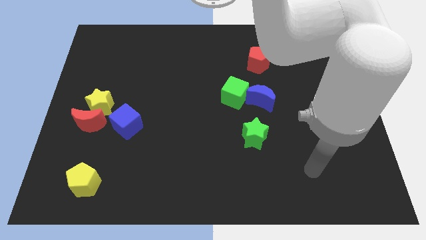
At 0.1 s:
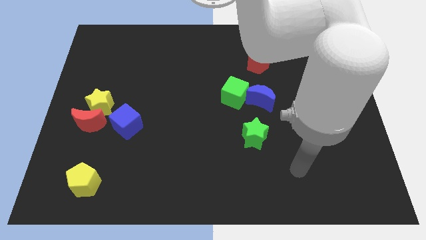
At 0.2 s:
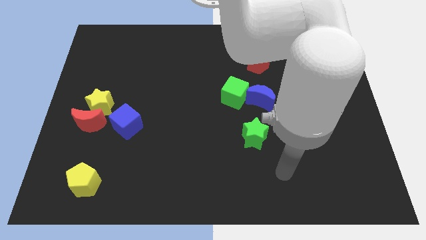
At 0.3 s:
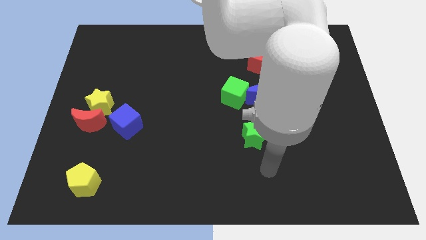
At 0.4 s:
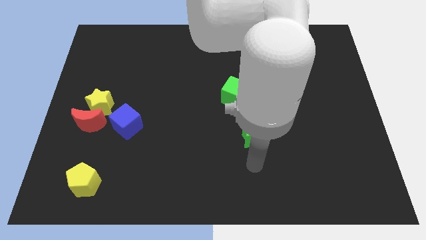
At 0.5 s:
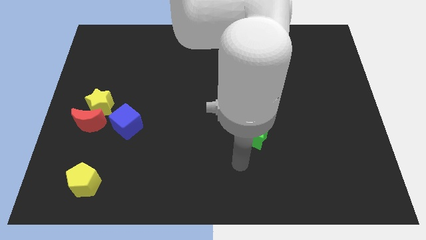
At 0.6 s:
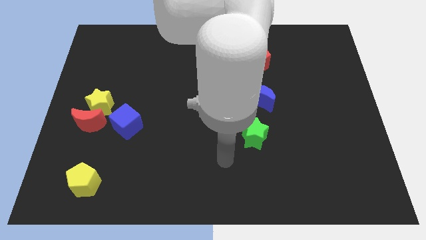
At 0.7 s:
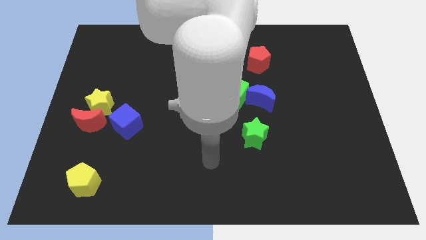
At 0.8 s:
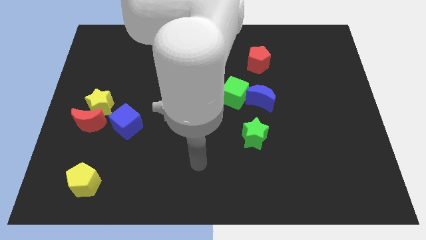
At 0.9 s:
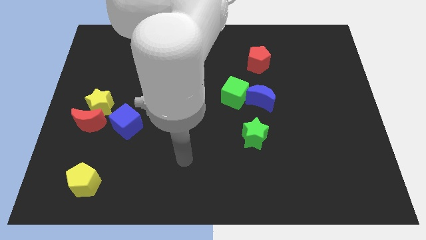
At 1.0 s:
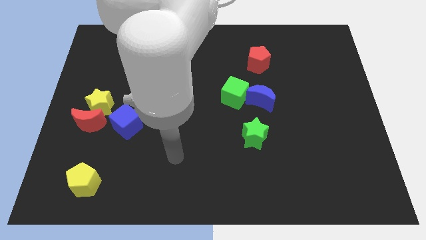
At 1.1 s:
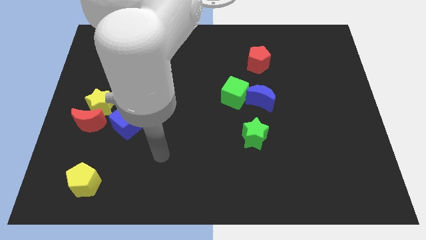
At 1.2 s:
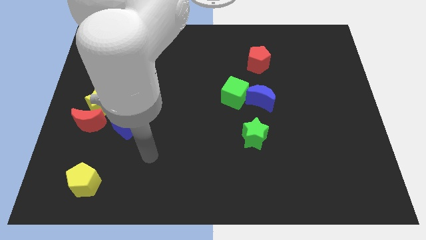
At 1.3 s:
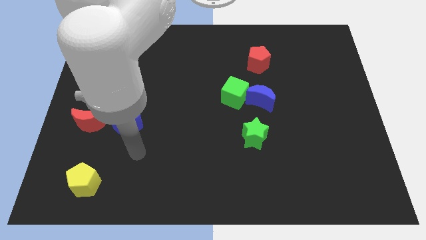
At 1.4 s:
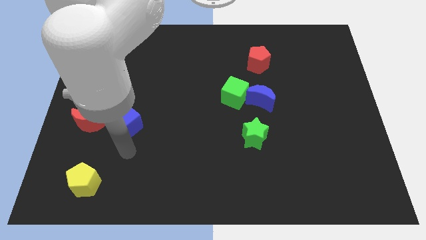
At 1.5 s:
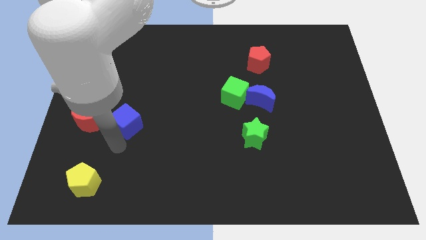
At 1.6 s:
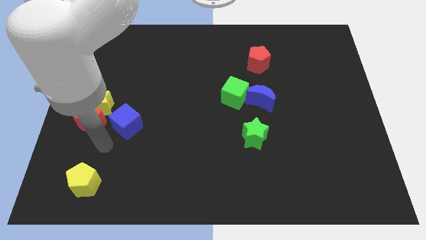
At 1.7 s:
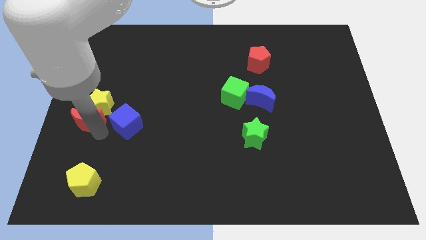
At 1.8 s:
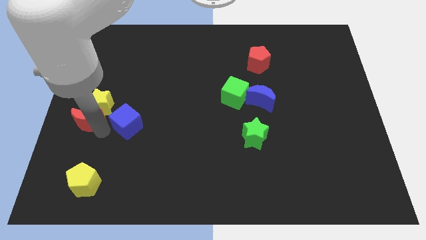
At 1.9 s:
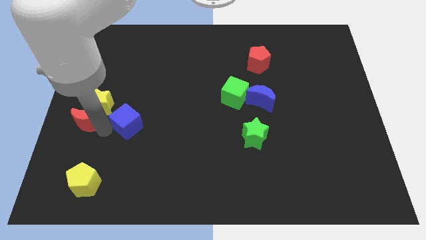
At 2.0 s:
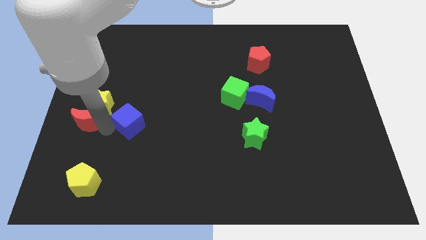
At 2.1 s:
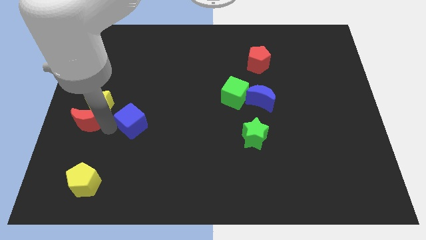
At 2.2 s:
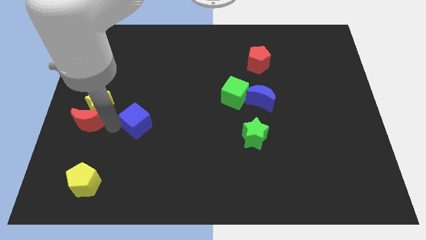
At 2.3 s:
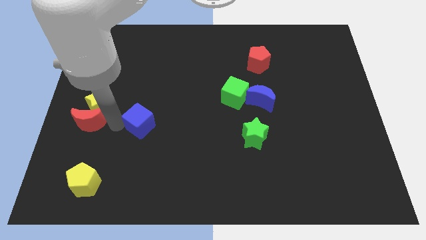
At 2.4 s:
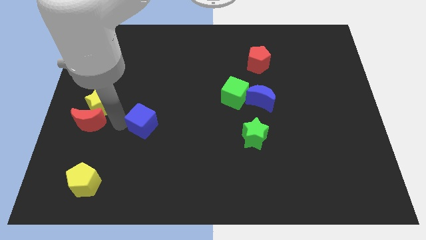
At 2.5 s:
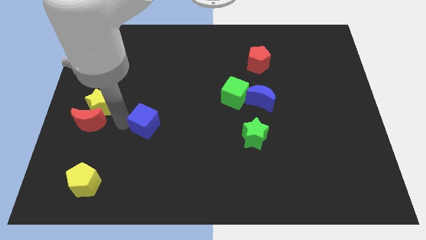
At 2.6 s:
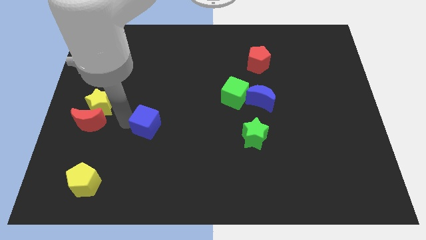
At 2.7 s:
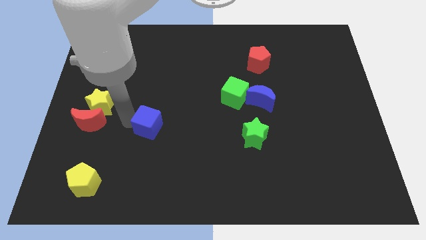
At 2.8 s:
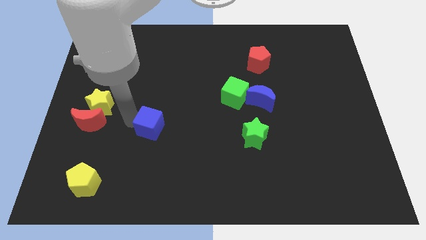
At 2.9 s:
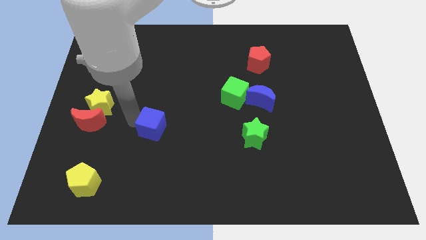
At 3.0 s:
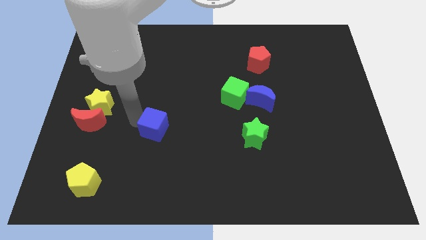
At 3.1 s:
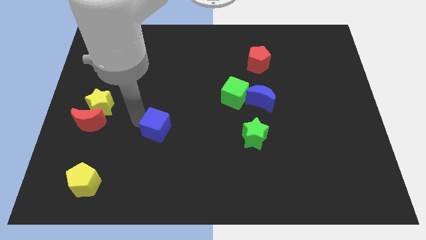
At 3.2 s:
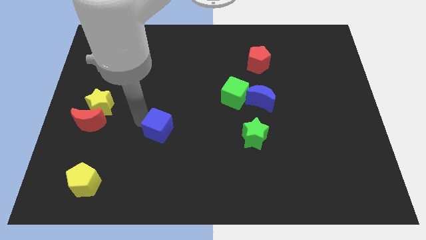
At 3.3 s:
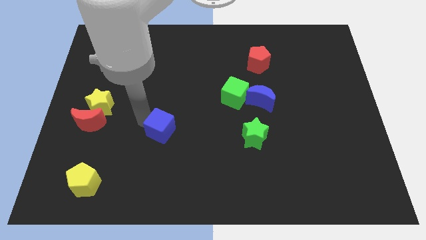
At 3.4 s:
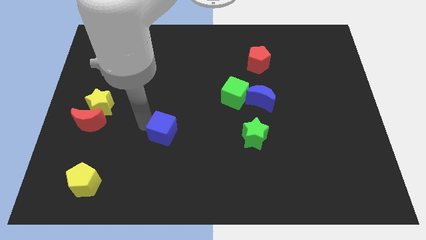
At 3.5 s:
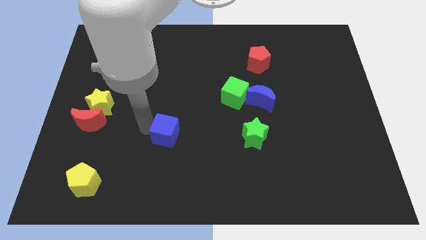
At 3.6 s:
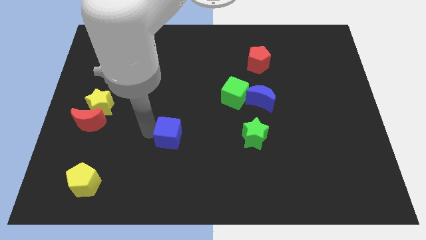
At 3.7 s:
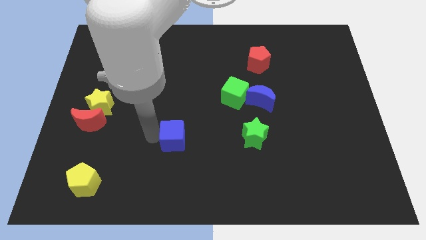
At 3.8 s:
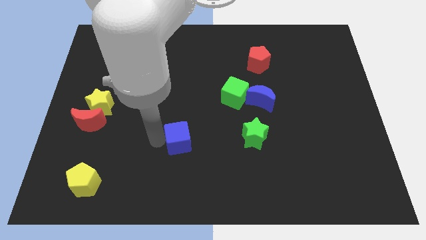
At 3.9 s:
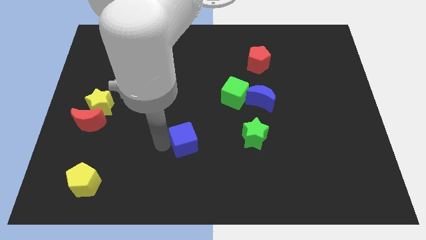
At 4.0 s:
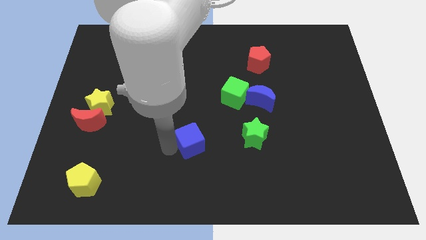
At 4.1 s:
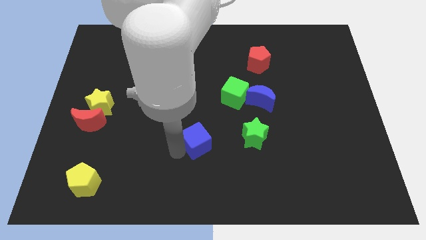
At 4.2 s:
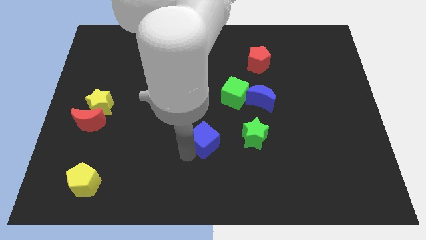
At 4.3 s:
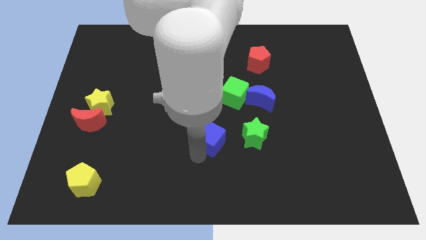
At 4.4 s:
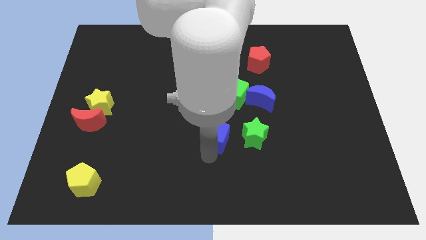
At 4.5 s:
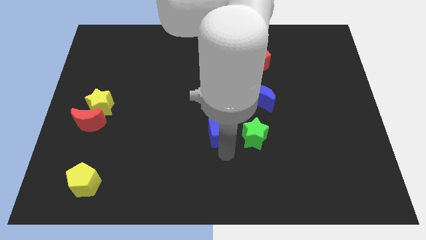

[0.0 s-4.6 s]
move the blue cube right

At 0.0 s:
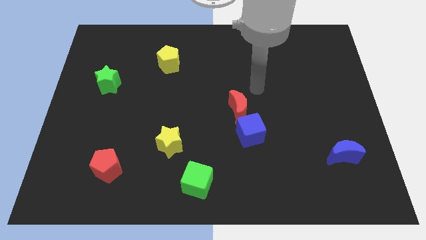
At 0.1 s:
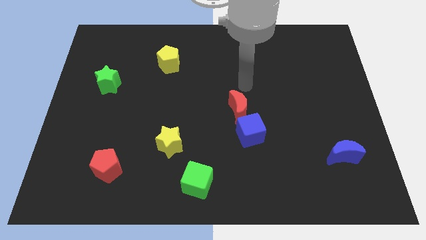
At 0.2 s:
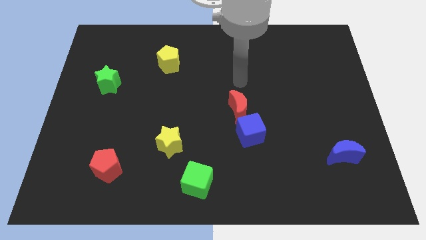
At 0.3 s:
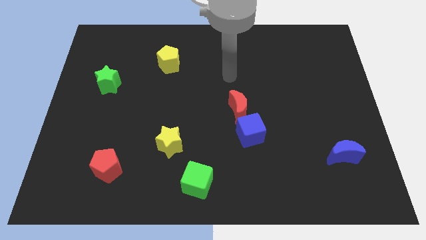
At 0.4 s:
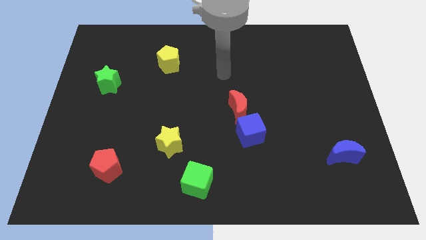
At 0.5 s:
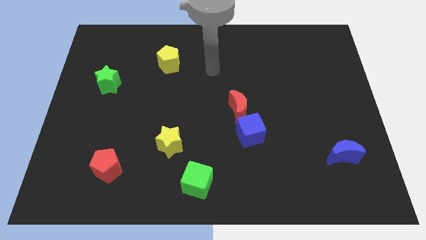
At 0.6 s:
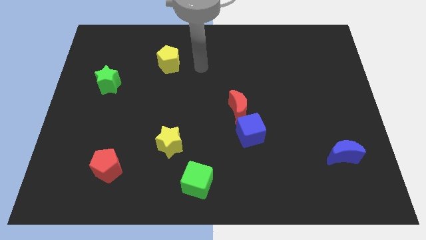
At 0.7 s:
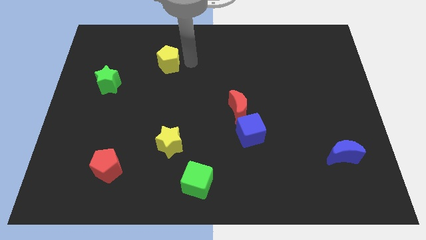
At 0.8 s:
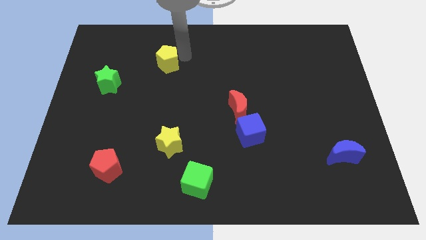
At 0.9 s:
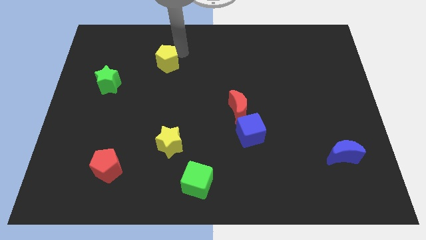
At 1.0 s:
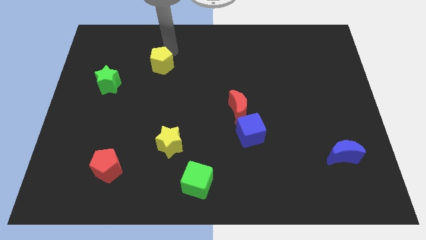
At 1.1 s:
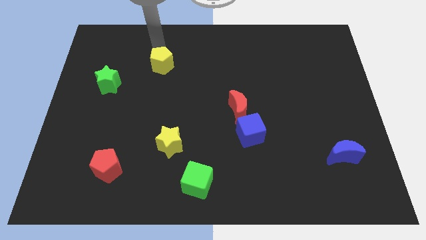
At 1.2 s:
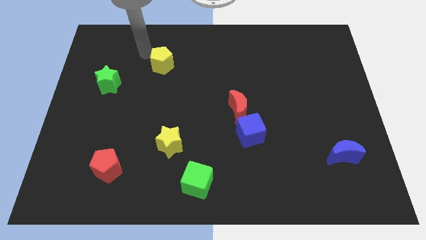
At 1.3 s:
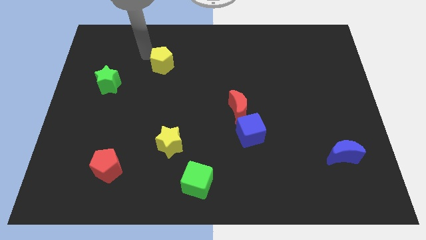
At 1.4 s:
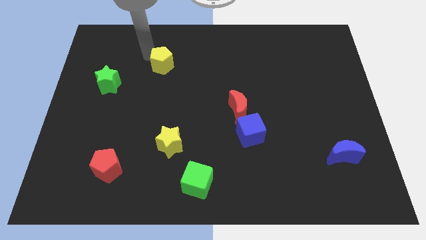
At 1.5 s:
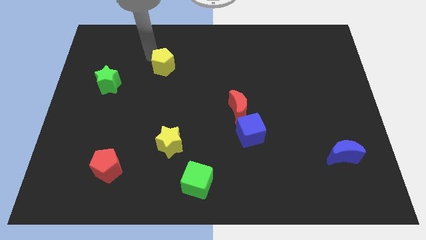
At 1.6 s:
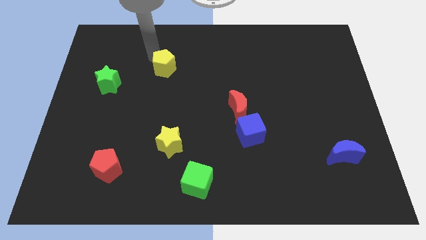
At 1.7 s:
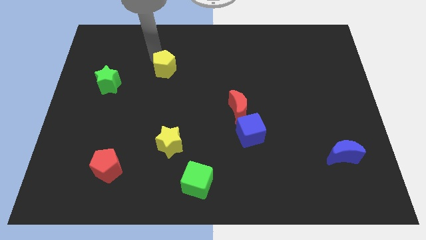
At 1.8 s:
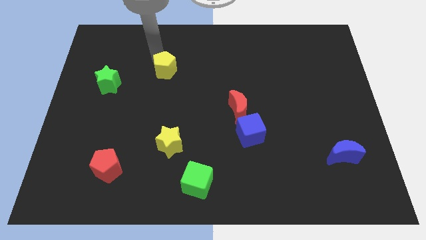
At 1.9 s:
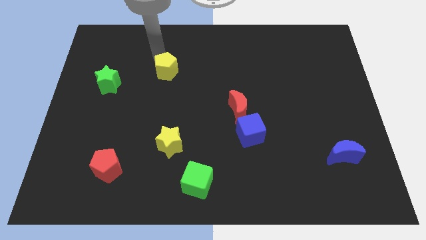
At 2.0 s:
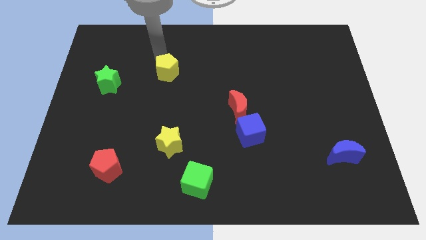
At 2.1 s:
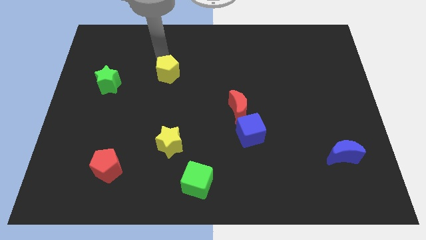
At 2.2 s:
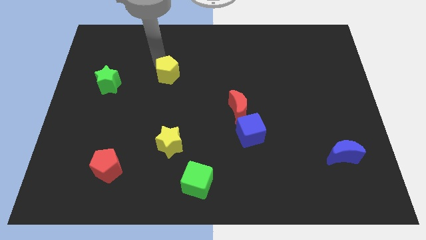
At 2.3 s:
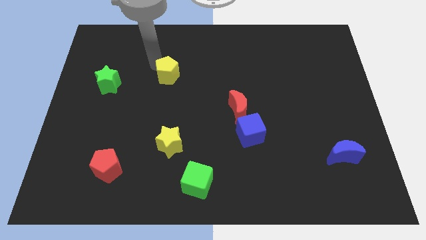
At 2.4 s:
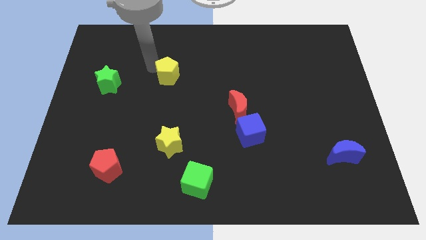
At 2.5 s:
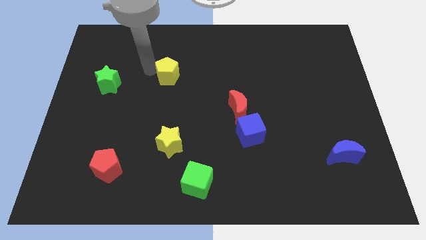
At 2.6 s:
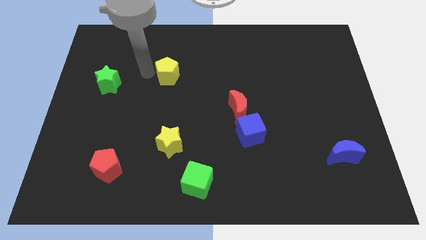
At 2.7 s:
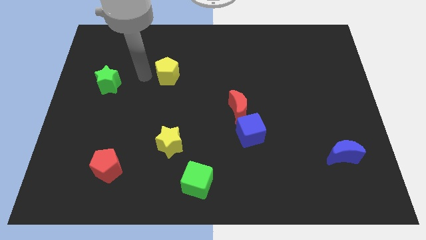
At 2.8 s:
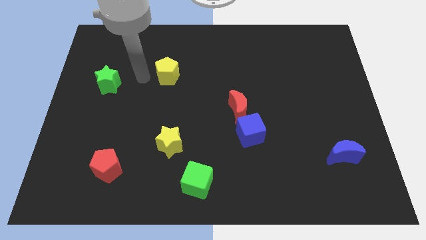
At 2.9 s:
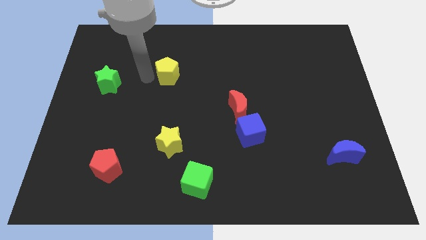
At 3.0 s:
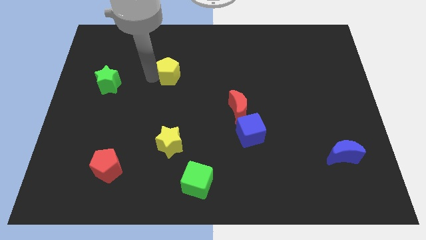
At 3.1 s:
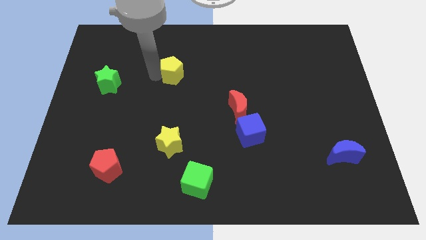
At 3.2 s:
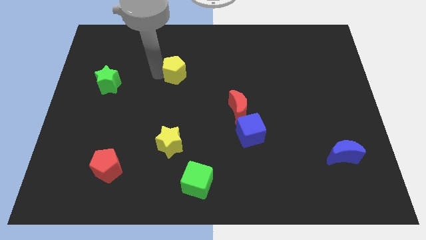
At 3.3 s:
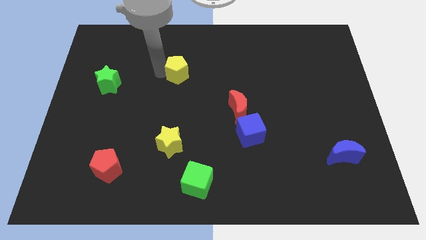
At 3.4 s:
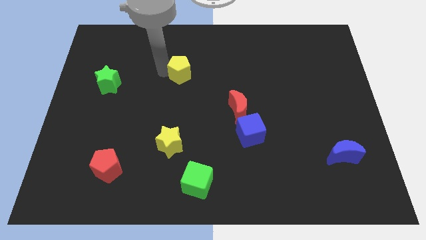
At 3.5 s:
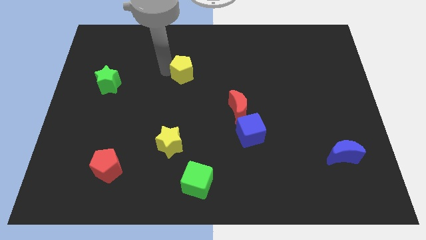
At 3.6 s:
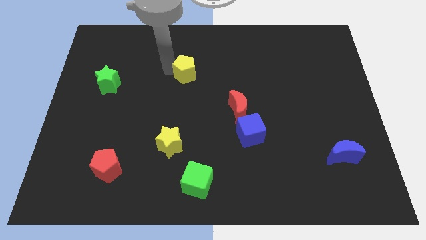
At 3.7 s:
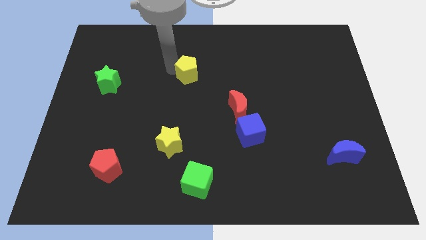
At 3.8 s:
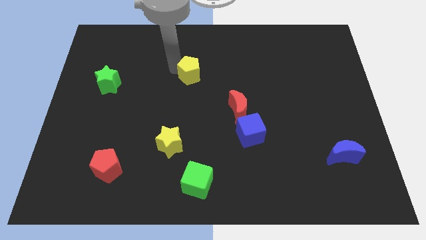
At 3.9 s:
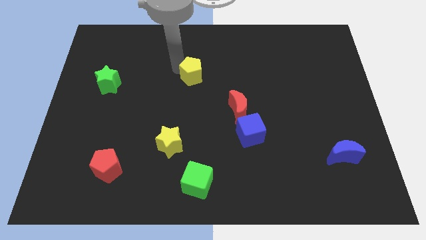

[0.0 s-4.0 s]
slightly slide the yellow pentagon downwards and then right
